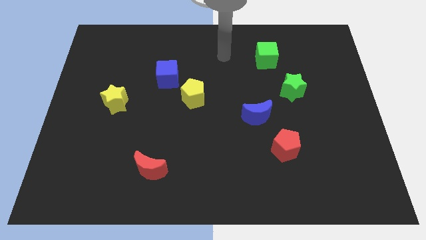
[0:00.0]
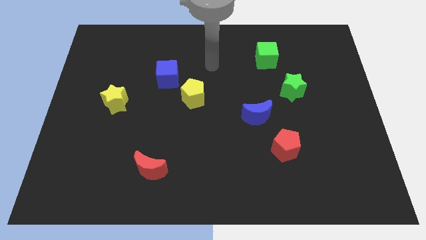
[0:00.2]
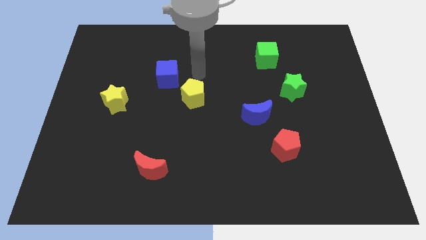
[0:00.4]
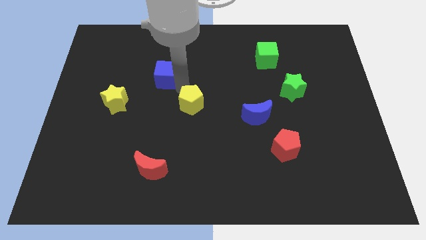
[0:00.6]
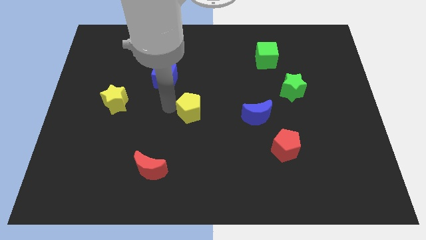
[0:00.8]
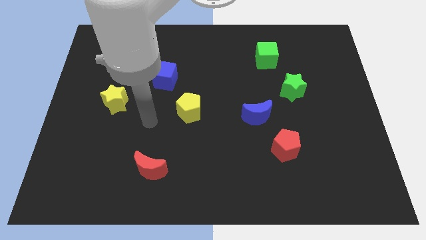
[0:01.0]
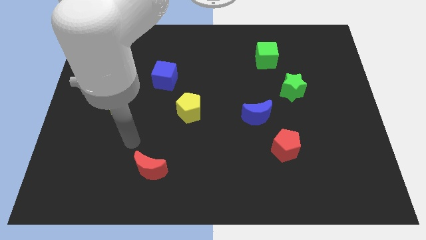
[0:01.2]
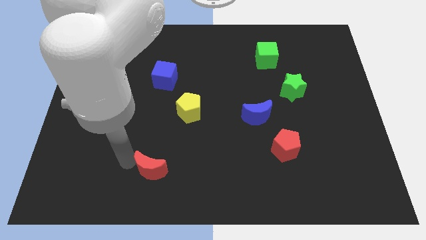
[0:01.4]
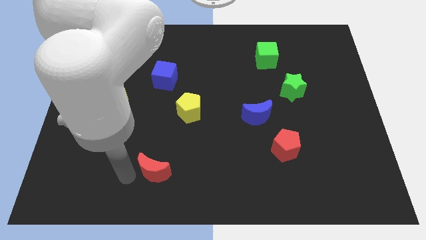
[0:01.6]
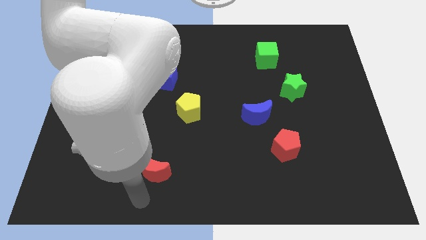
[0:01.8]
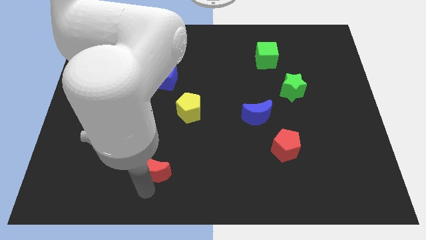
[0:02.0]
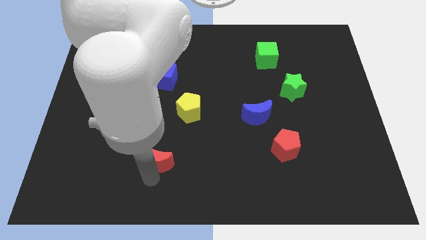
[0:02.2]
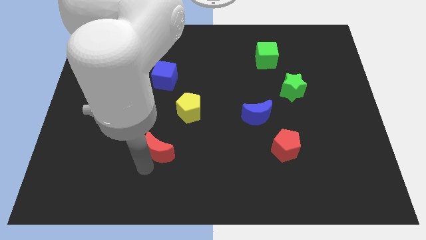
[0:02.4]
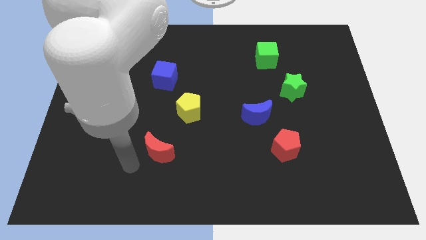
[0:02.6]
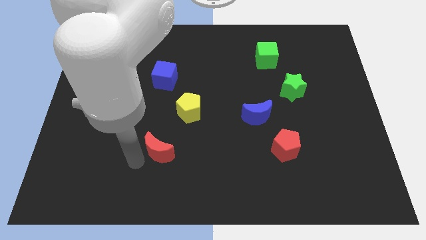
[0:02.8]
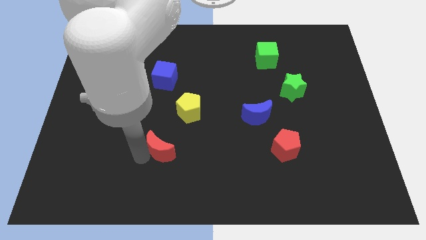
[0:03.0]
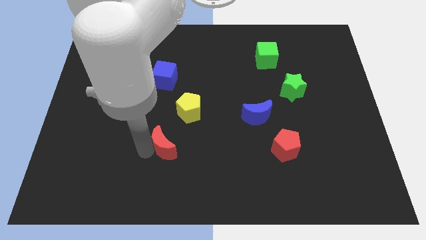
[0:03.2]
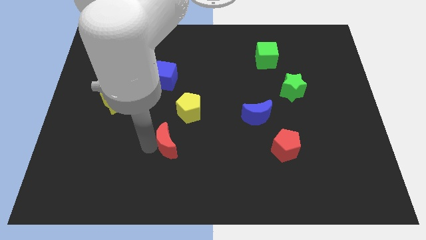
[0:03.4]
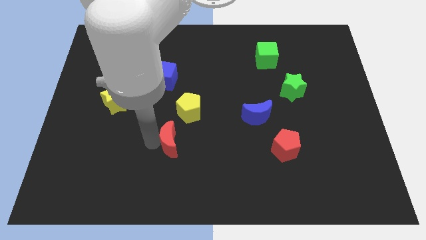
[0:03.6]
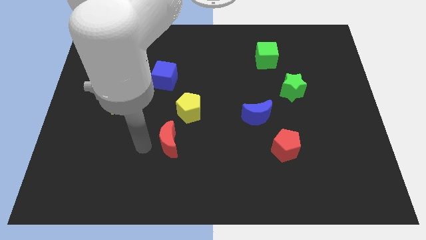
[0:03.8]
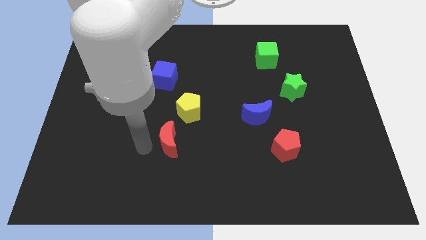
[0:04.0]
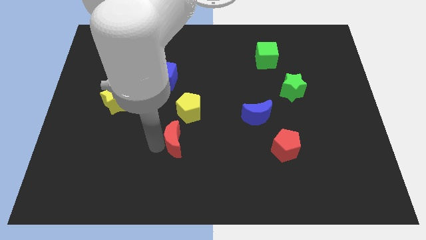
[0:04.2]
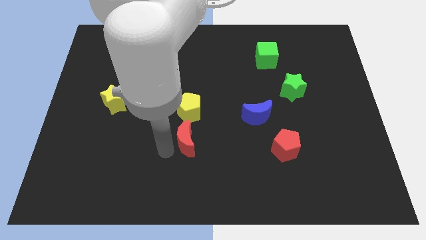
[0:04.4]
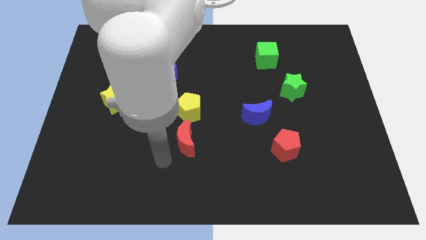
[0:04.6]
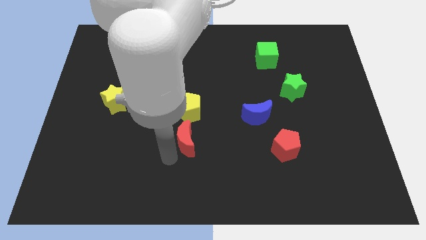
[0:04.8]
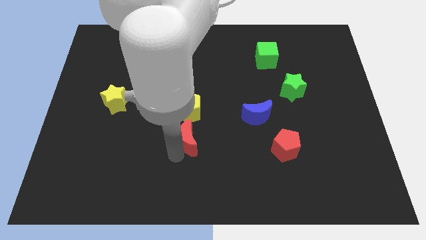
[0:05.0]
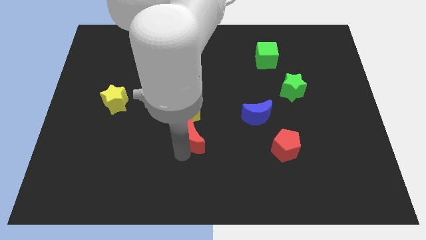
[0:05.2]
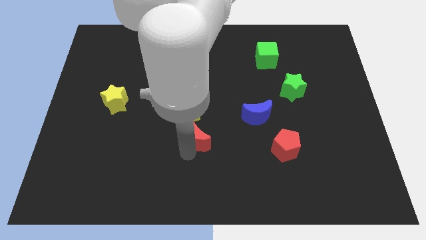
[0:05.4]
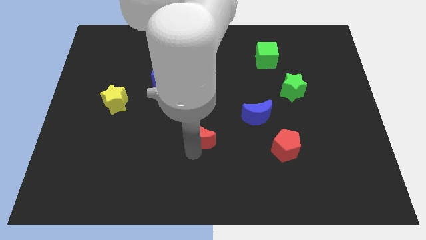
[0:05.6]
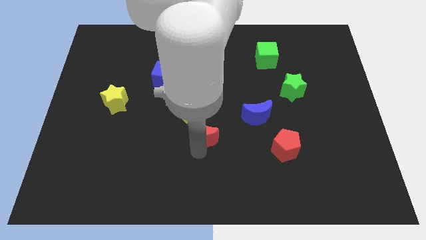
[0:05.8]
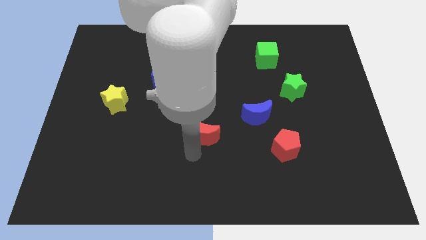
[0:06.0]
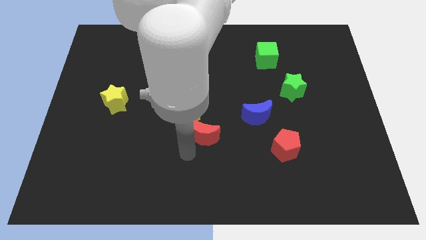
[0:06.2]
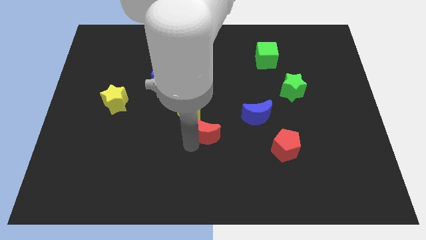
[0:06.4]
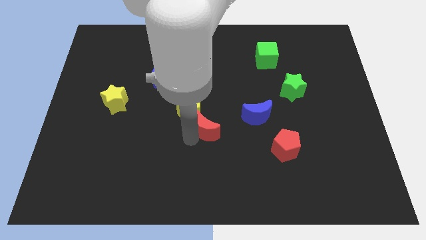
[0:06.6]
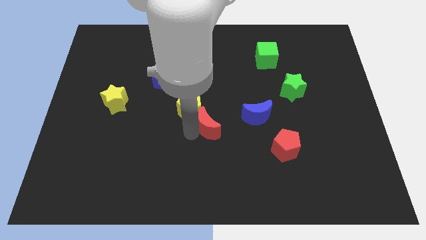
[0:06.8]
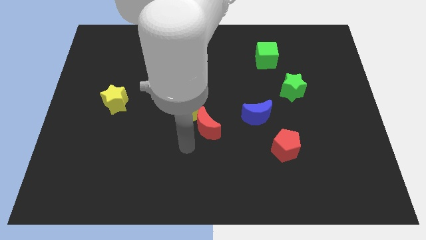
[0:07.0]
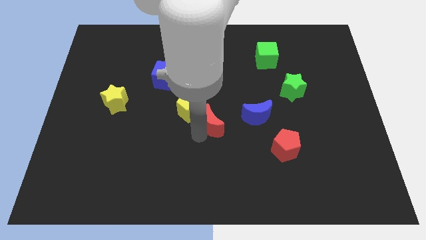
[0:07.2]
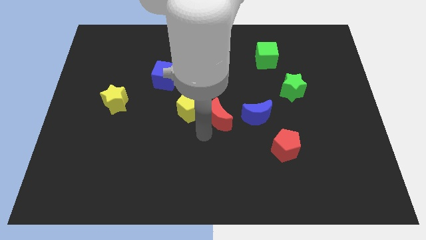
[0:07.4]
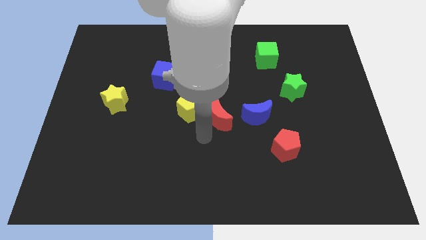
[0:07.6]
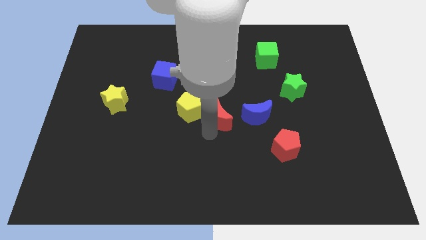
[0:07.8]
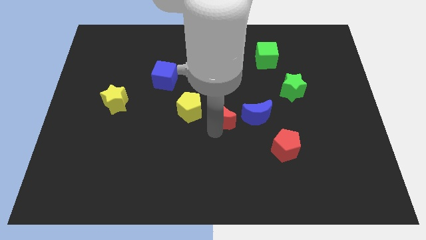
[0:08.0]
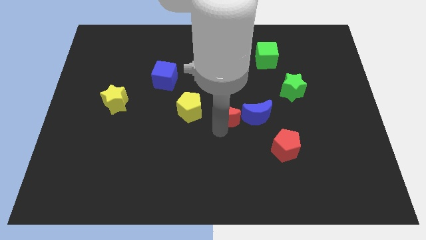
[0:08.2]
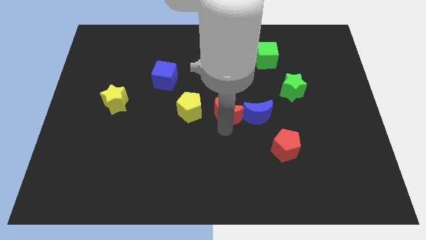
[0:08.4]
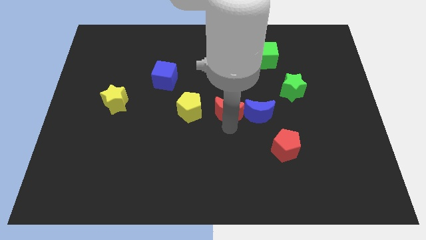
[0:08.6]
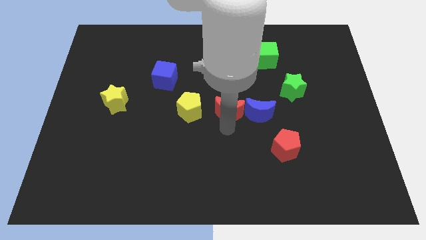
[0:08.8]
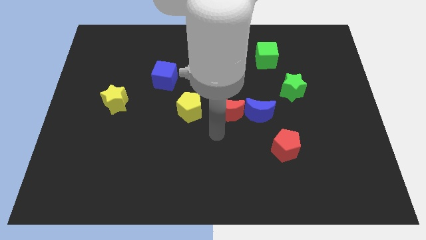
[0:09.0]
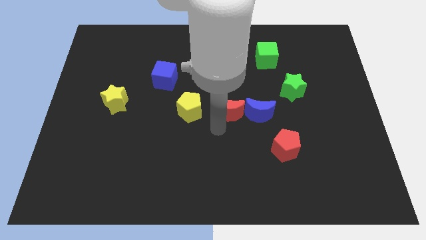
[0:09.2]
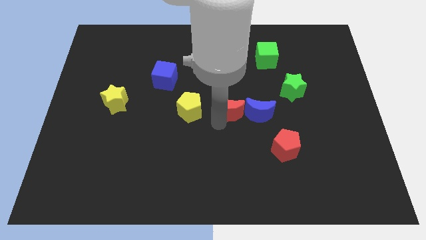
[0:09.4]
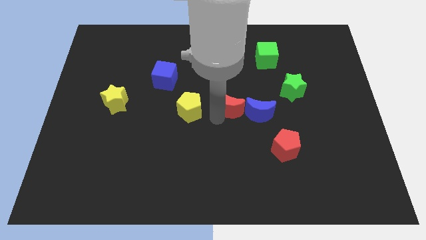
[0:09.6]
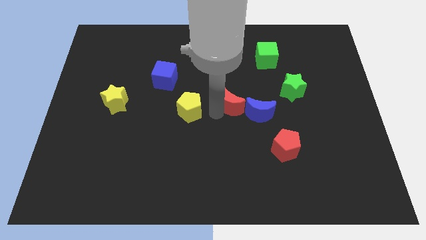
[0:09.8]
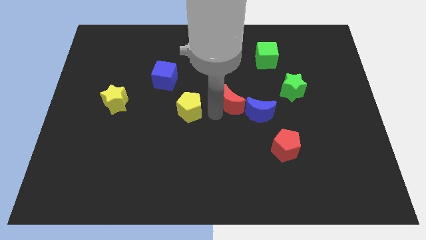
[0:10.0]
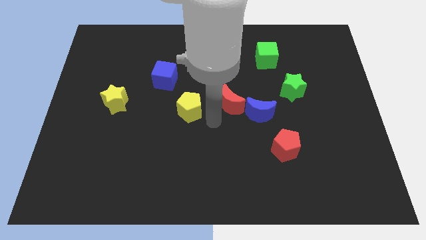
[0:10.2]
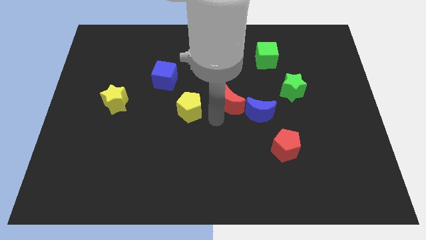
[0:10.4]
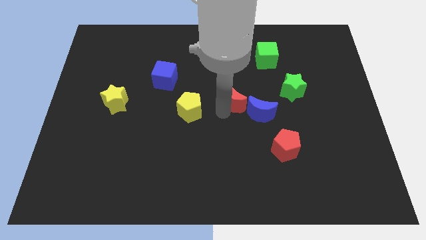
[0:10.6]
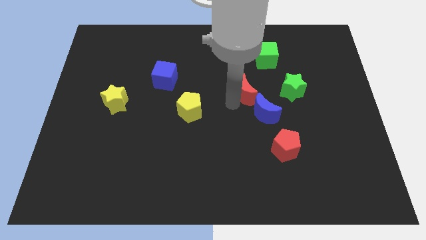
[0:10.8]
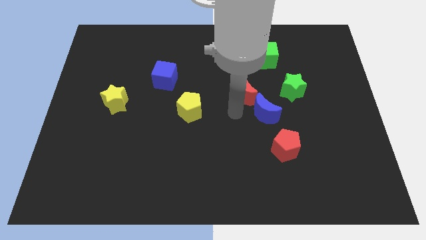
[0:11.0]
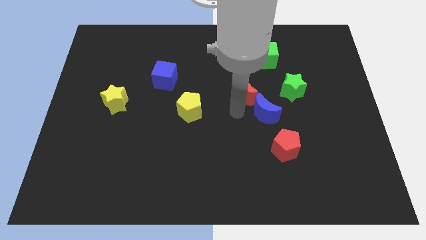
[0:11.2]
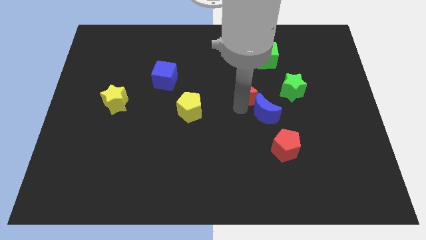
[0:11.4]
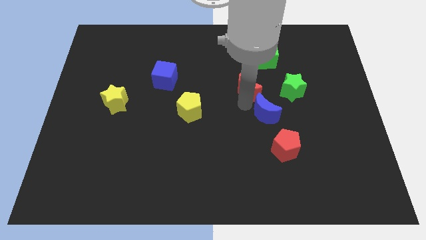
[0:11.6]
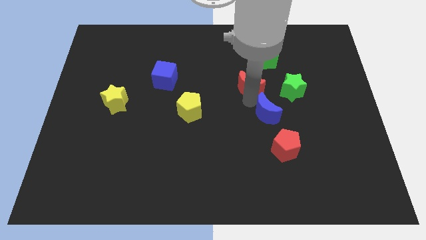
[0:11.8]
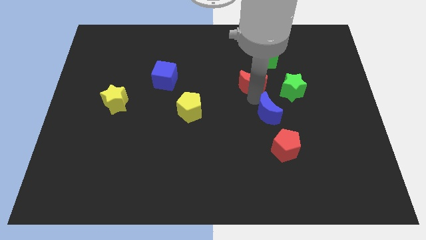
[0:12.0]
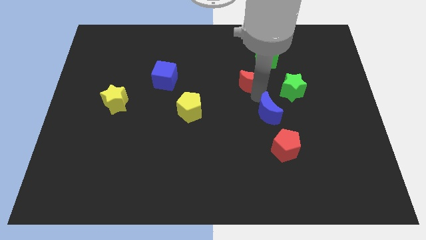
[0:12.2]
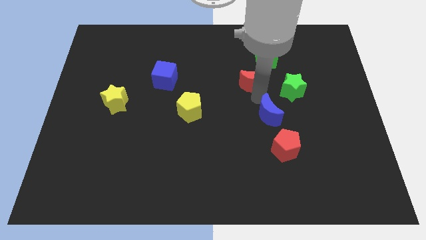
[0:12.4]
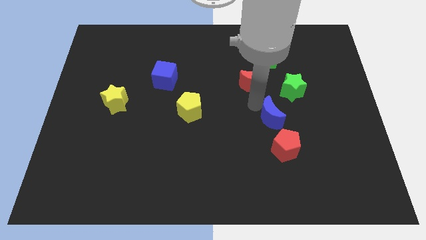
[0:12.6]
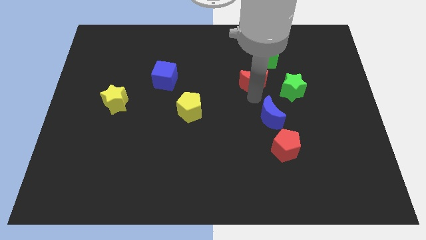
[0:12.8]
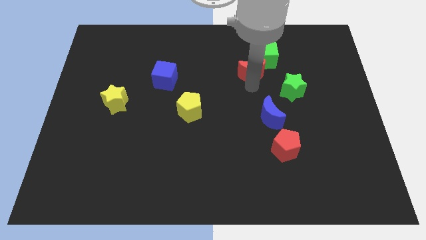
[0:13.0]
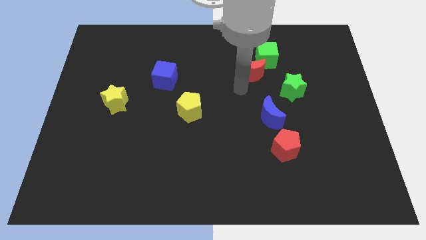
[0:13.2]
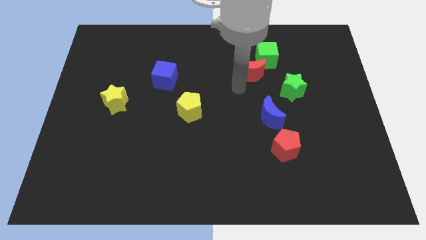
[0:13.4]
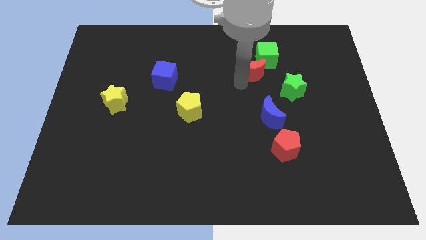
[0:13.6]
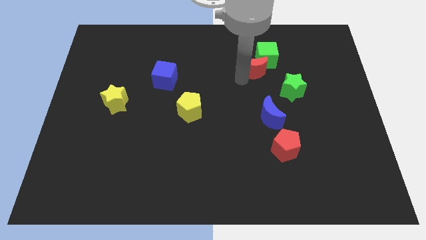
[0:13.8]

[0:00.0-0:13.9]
put the red moon to the green cube

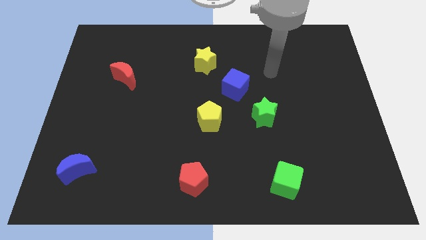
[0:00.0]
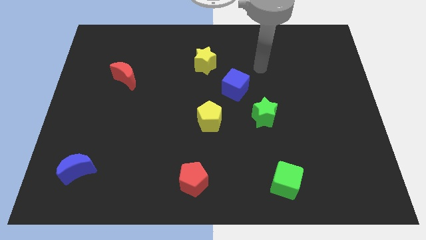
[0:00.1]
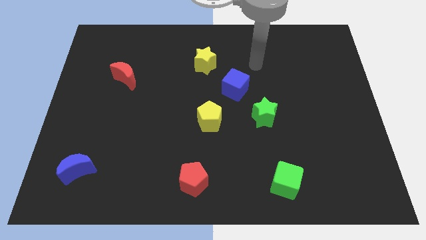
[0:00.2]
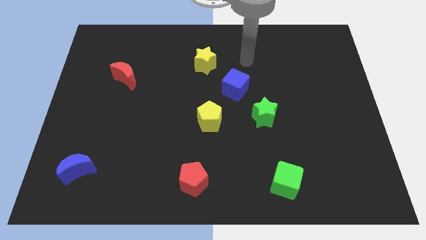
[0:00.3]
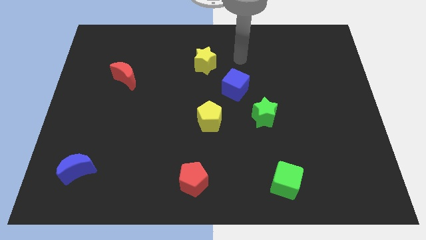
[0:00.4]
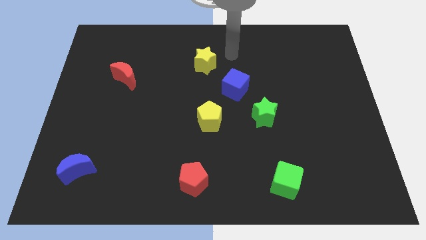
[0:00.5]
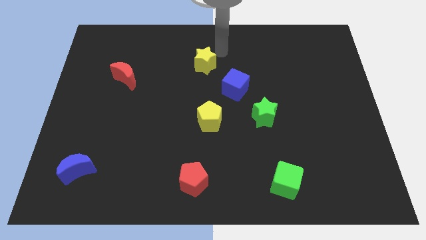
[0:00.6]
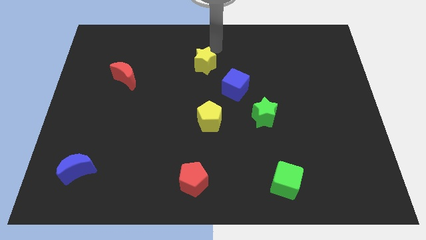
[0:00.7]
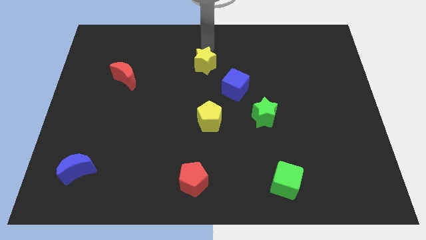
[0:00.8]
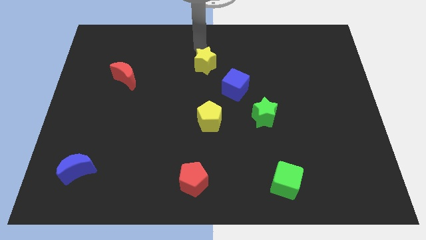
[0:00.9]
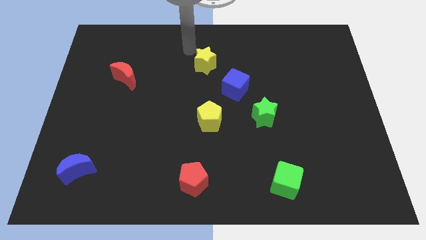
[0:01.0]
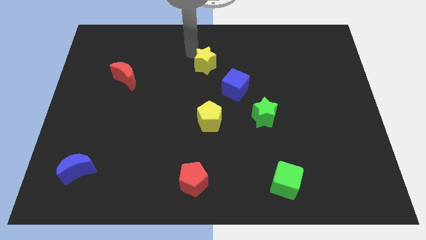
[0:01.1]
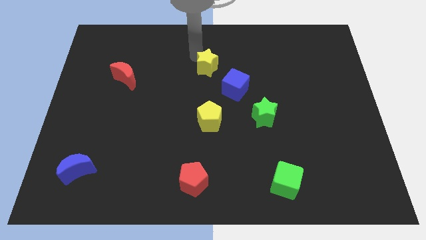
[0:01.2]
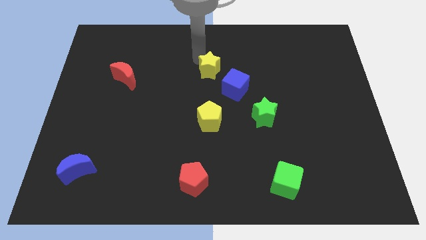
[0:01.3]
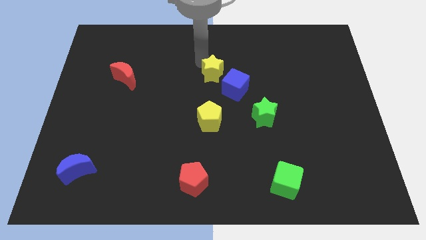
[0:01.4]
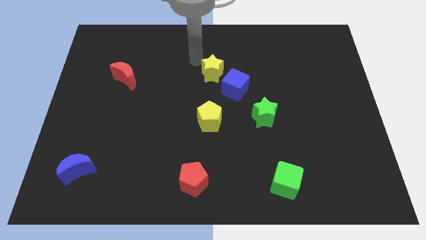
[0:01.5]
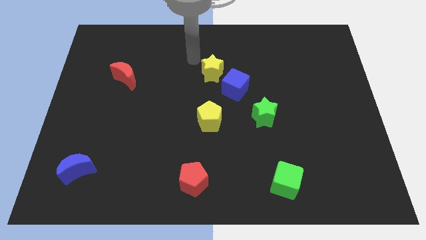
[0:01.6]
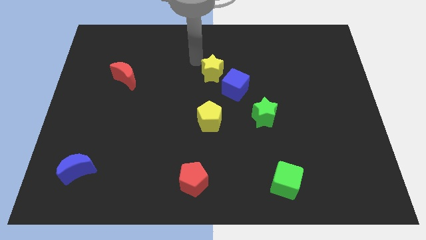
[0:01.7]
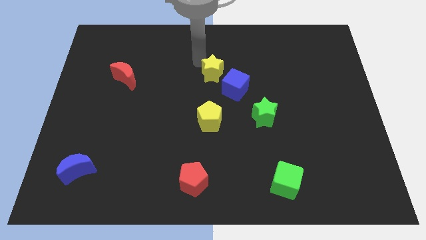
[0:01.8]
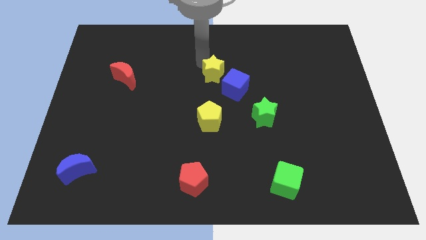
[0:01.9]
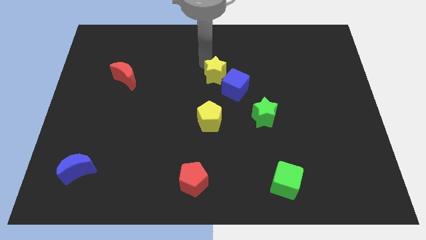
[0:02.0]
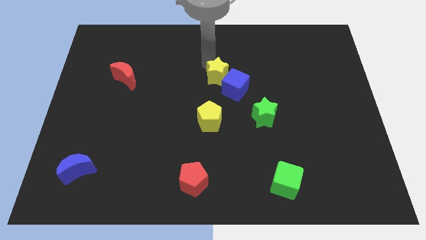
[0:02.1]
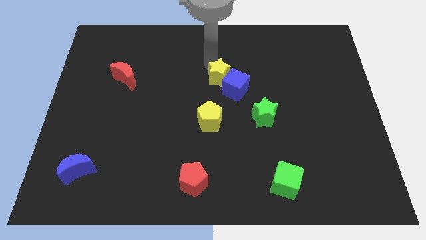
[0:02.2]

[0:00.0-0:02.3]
put the yellow star towards the blue cube
